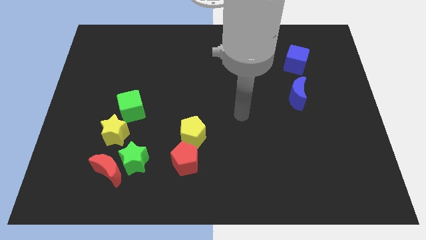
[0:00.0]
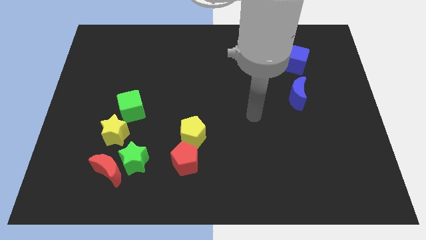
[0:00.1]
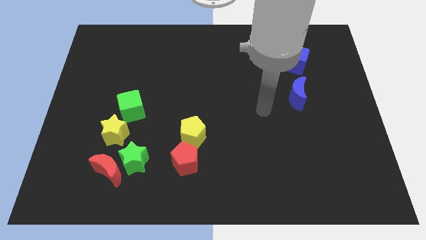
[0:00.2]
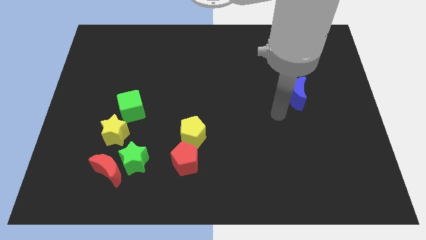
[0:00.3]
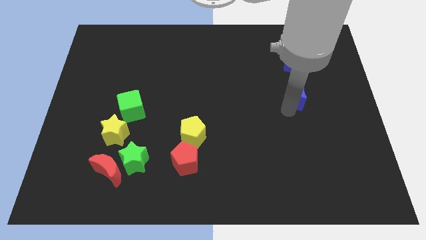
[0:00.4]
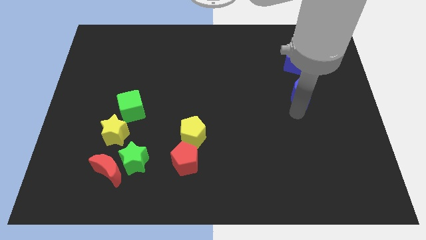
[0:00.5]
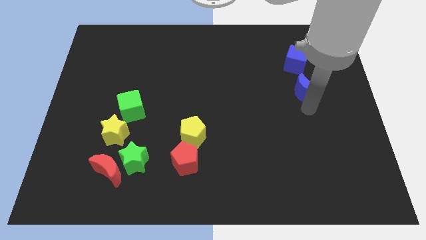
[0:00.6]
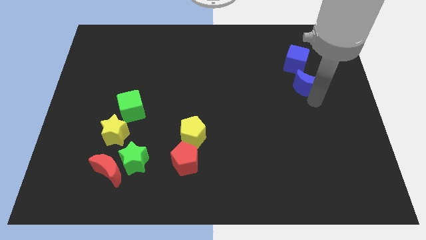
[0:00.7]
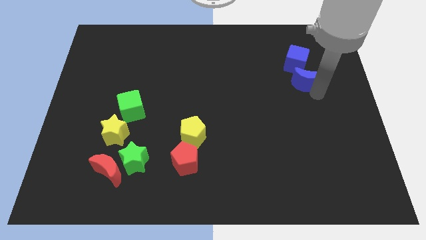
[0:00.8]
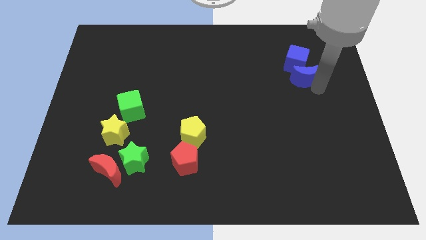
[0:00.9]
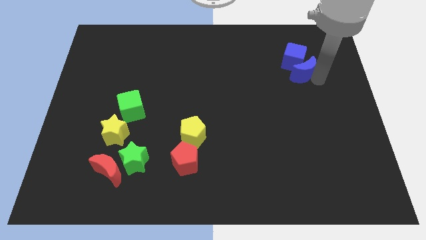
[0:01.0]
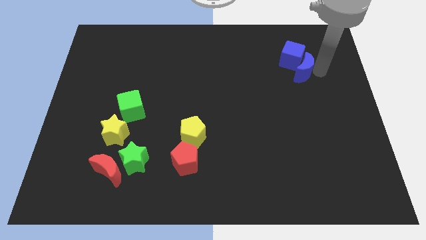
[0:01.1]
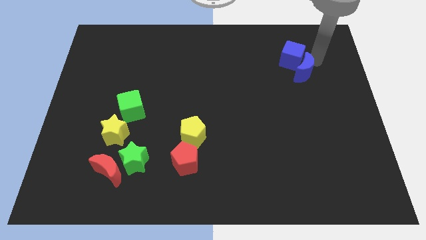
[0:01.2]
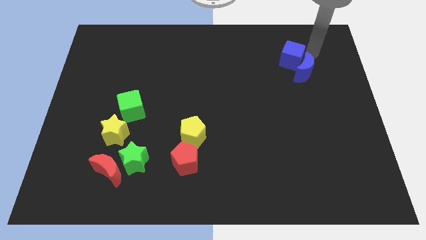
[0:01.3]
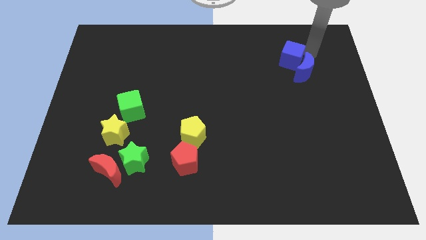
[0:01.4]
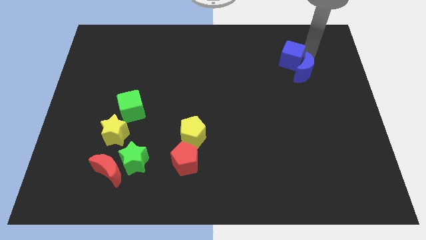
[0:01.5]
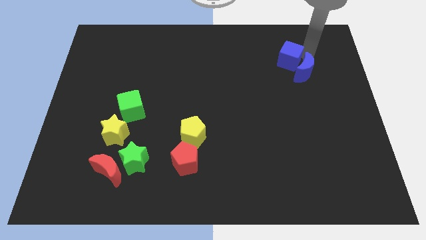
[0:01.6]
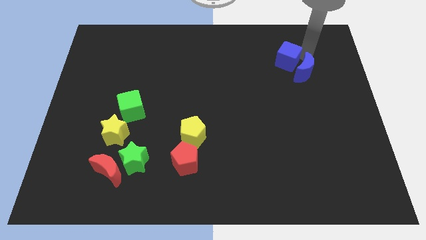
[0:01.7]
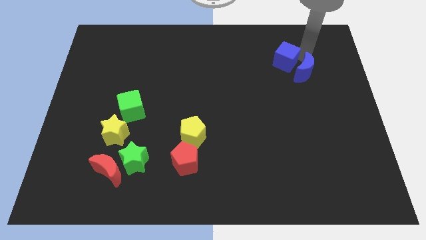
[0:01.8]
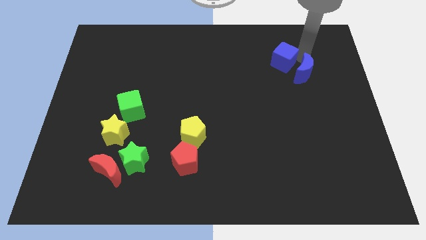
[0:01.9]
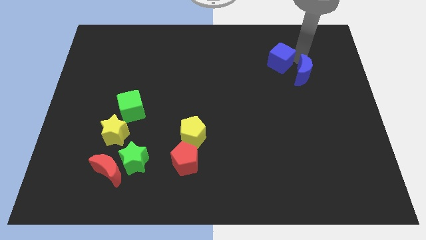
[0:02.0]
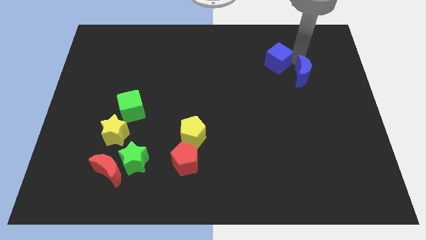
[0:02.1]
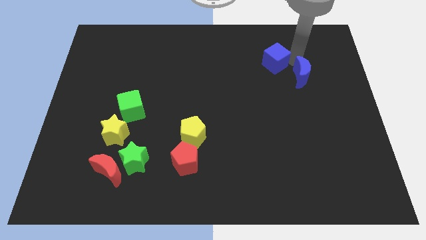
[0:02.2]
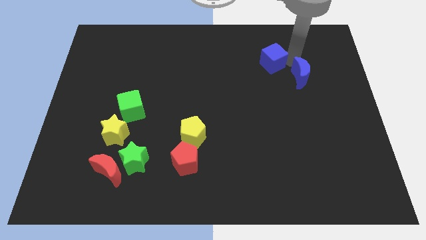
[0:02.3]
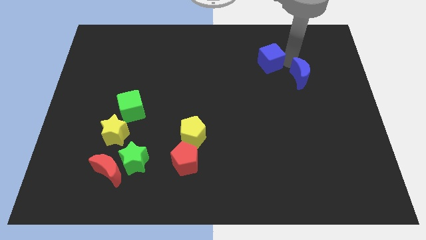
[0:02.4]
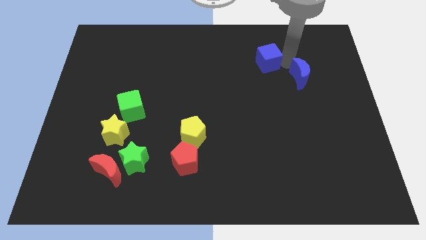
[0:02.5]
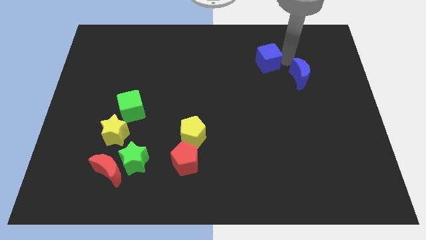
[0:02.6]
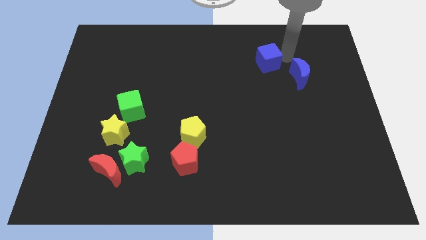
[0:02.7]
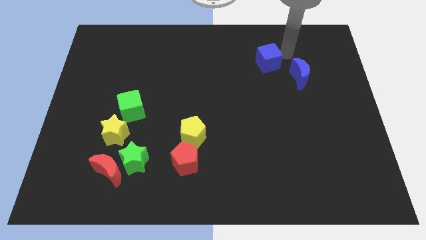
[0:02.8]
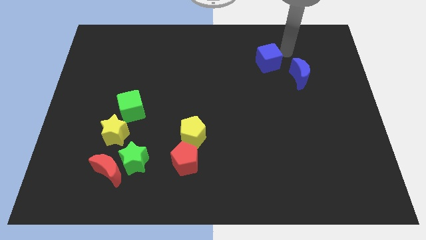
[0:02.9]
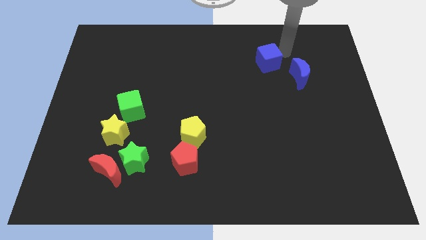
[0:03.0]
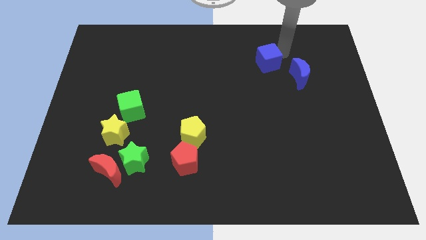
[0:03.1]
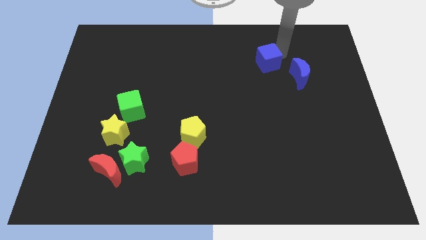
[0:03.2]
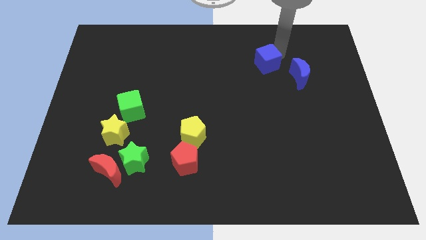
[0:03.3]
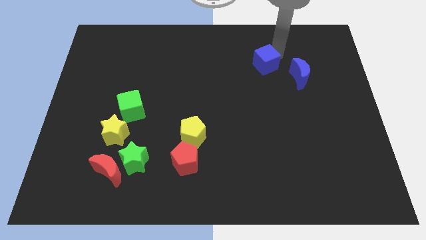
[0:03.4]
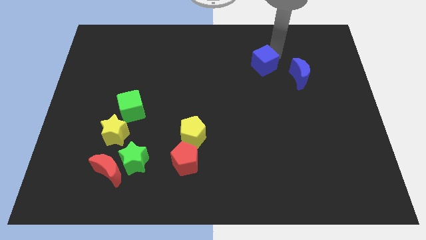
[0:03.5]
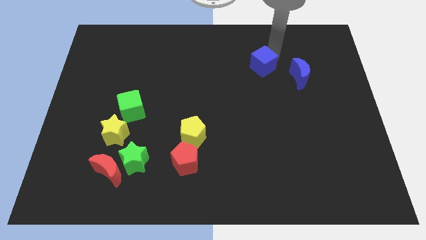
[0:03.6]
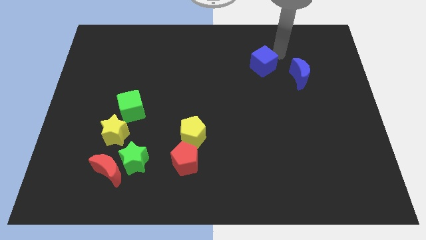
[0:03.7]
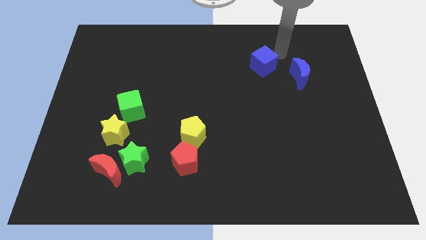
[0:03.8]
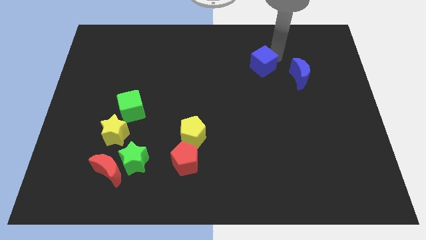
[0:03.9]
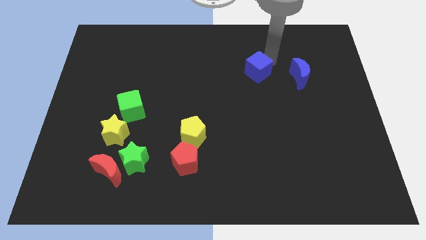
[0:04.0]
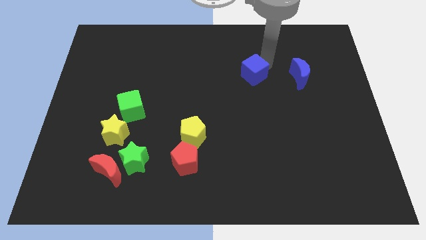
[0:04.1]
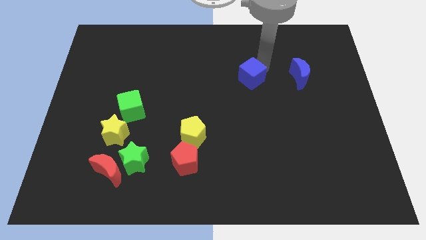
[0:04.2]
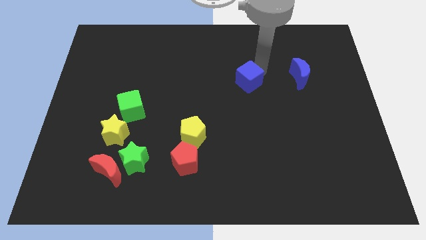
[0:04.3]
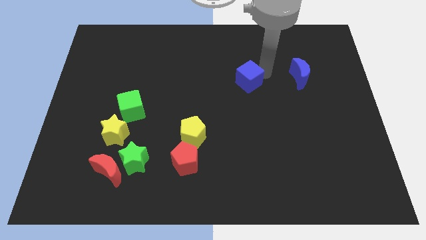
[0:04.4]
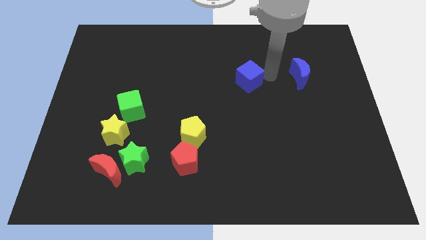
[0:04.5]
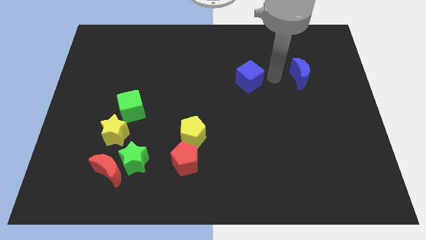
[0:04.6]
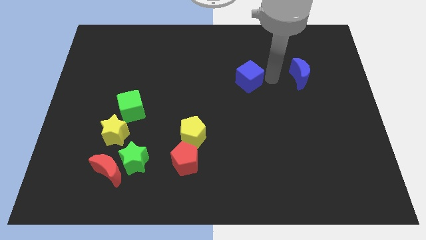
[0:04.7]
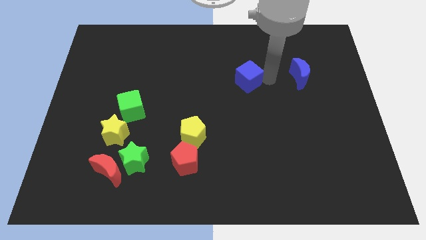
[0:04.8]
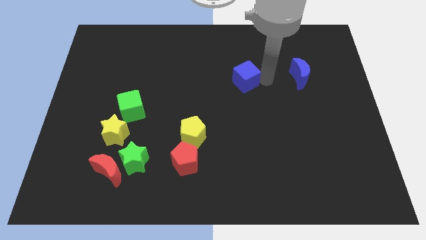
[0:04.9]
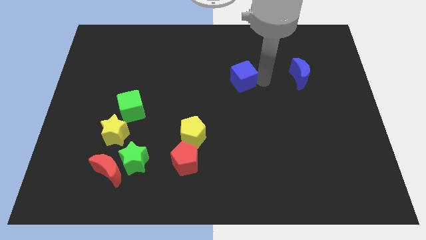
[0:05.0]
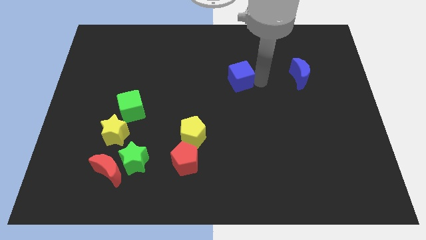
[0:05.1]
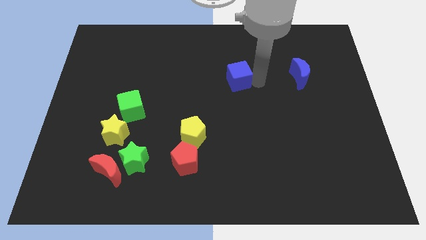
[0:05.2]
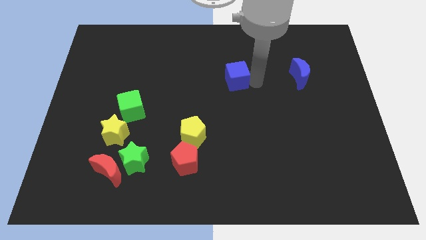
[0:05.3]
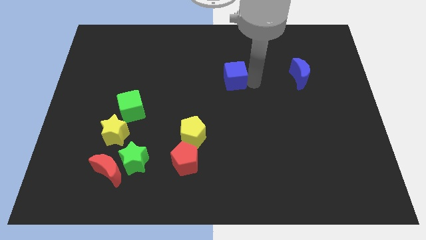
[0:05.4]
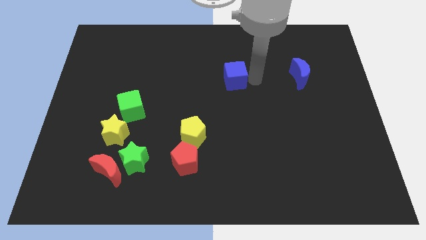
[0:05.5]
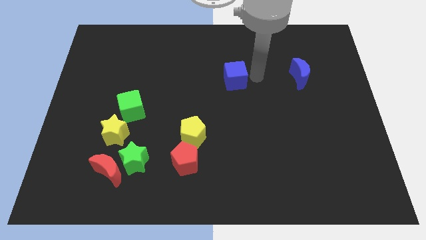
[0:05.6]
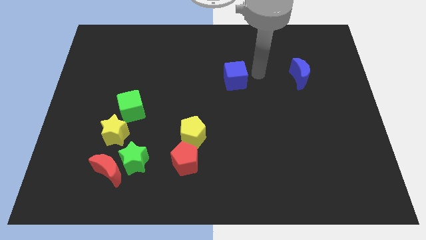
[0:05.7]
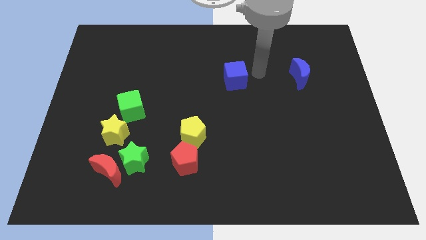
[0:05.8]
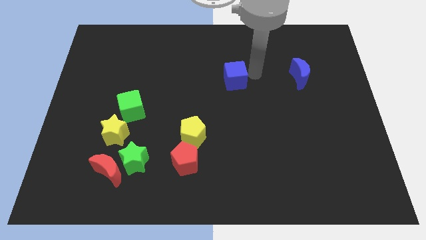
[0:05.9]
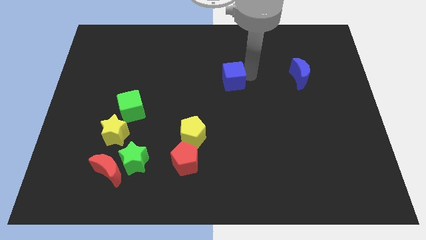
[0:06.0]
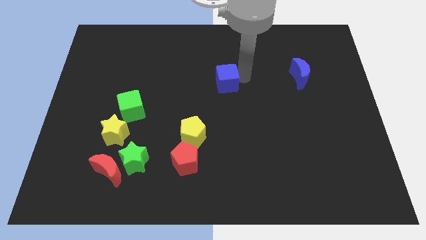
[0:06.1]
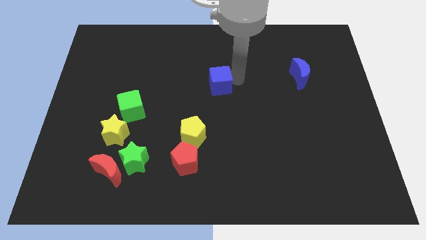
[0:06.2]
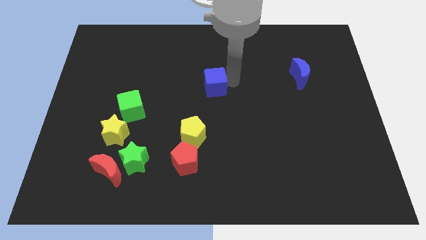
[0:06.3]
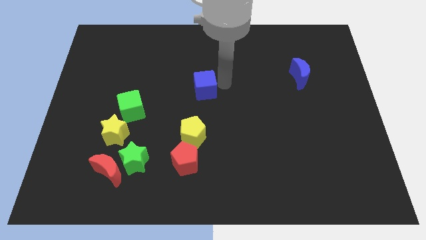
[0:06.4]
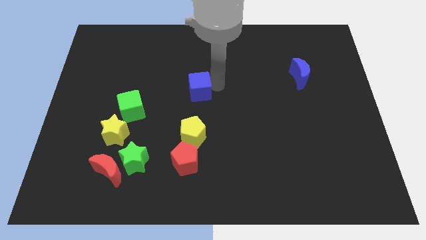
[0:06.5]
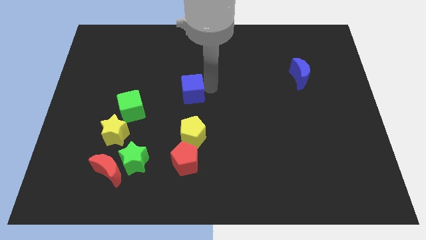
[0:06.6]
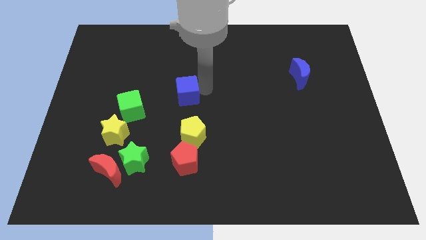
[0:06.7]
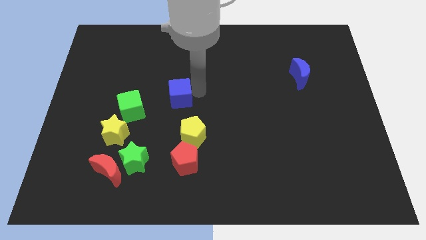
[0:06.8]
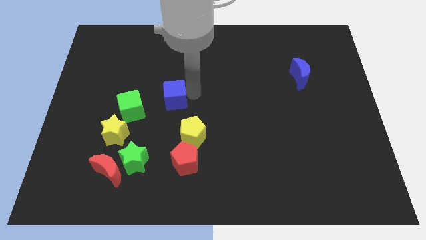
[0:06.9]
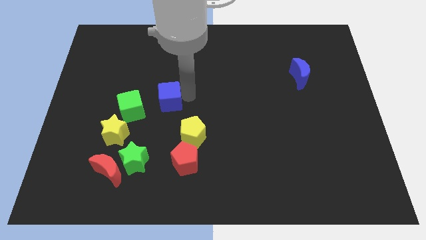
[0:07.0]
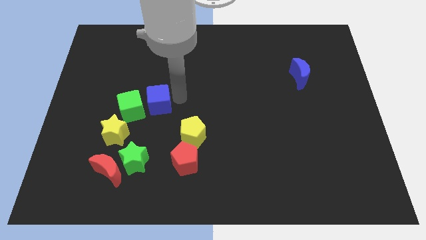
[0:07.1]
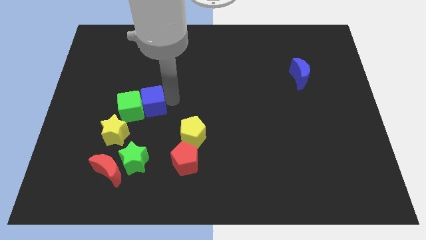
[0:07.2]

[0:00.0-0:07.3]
move the blue cube next to the green cube
